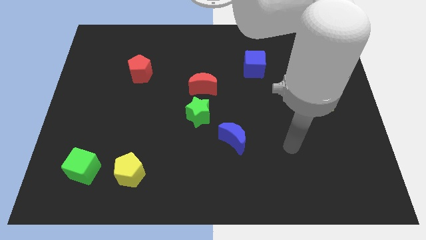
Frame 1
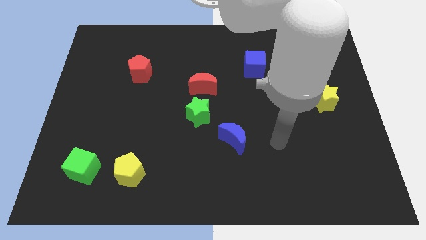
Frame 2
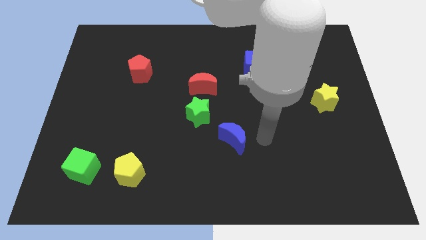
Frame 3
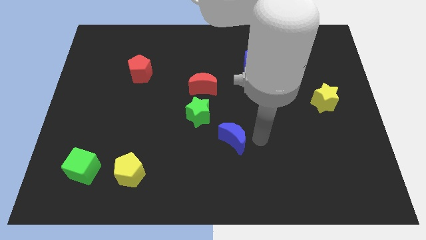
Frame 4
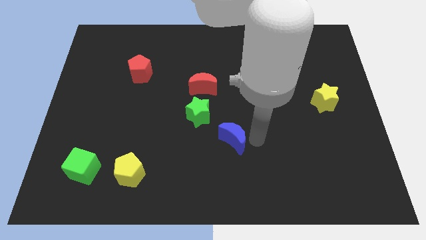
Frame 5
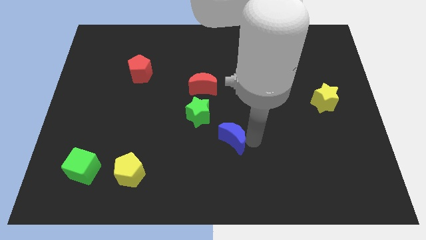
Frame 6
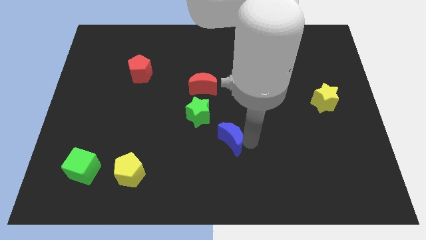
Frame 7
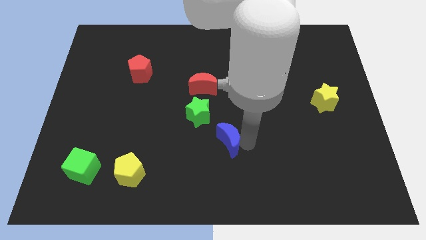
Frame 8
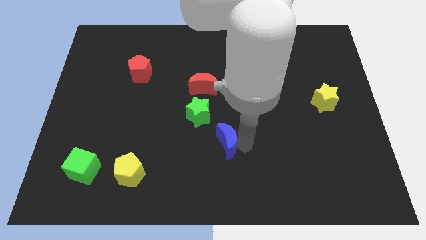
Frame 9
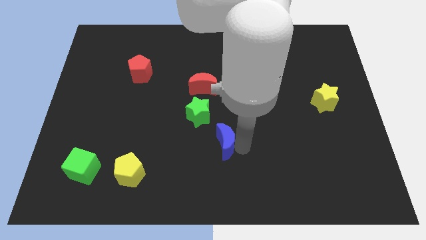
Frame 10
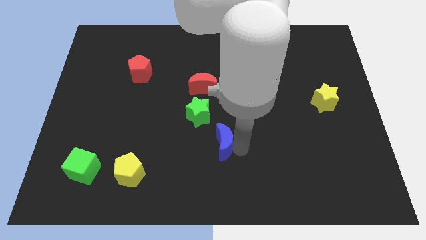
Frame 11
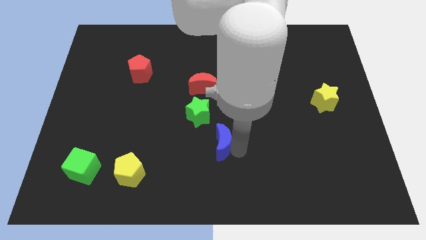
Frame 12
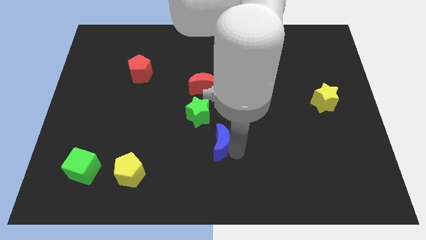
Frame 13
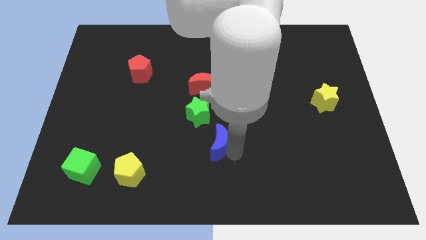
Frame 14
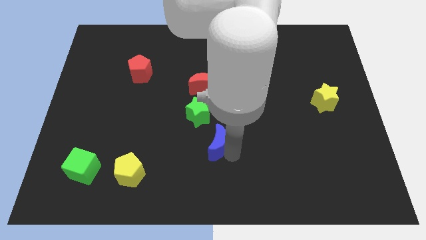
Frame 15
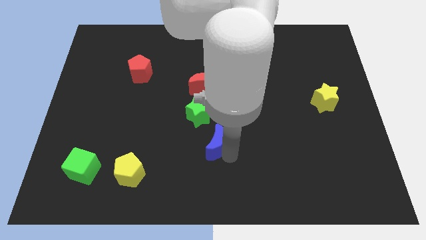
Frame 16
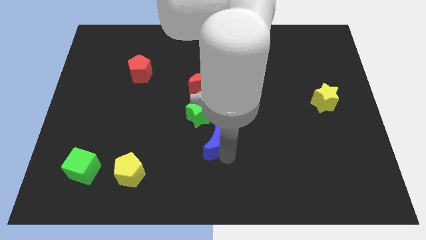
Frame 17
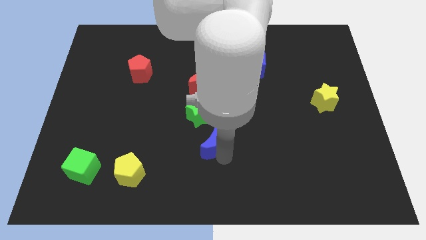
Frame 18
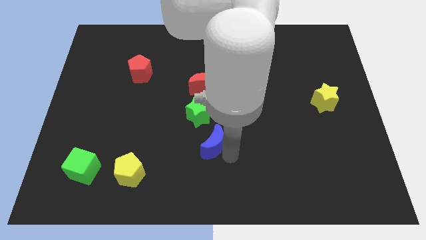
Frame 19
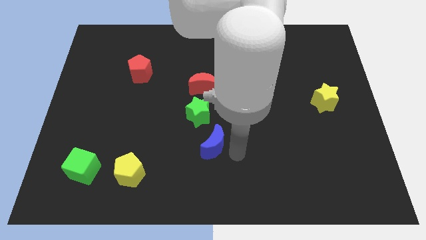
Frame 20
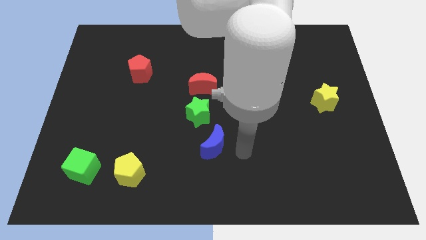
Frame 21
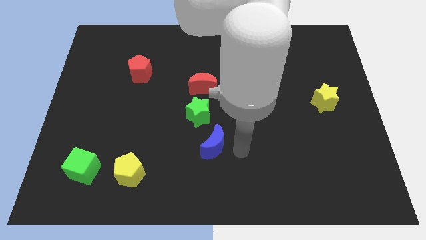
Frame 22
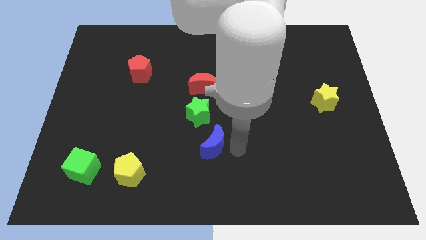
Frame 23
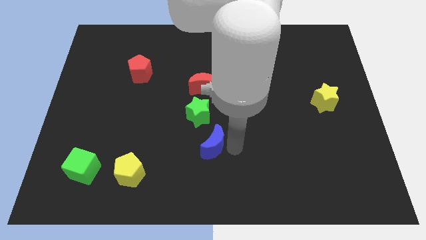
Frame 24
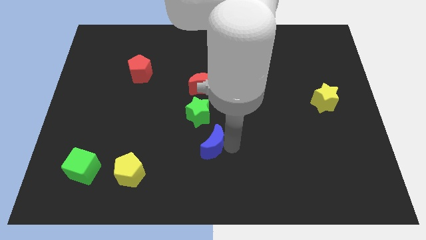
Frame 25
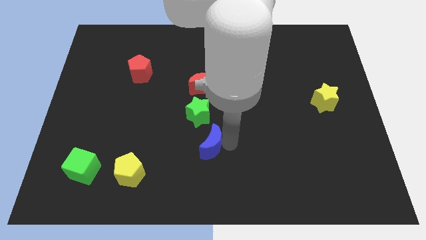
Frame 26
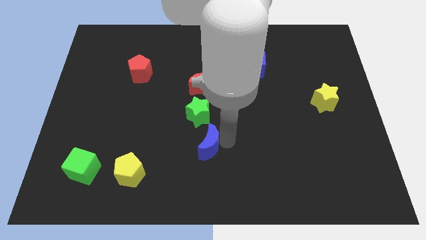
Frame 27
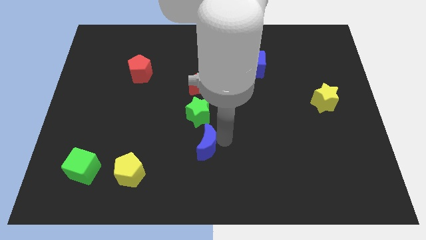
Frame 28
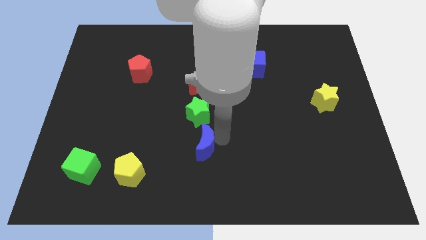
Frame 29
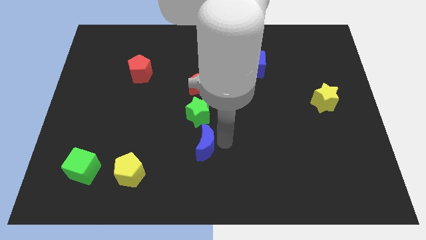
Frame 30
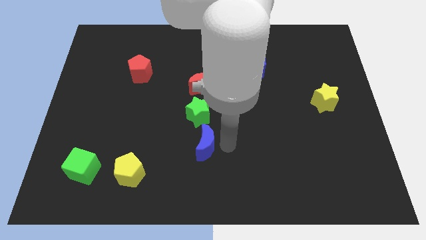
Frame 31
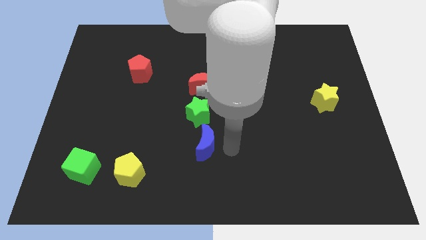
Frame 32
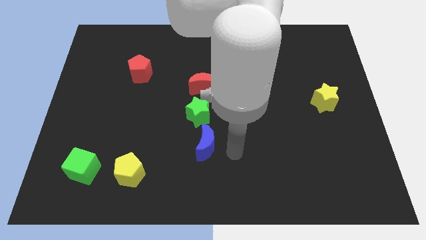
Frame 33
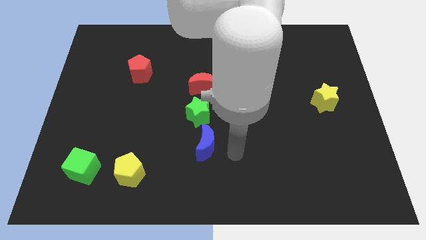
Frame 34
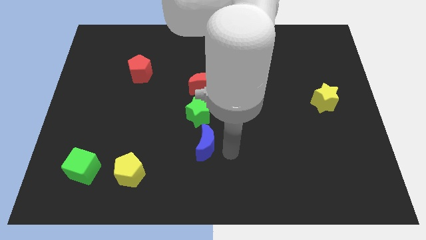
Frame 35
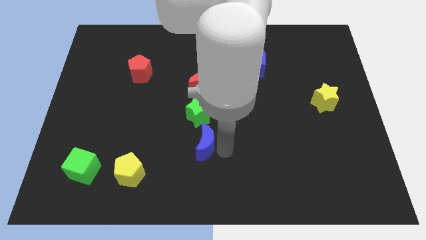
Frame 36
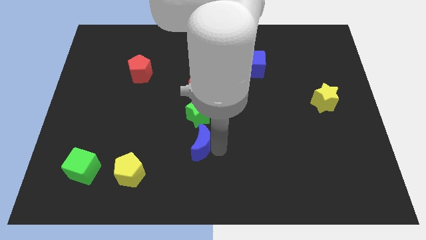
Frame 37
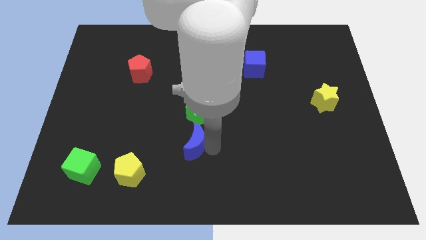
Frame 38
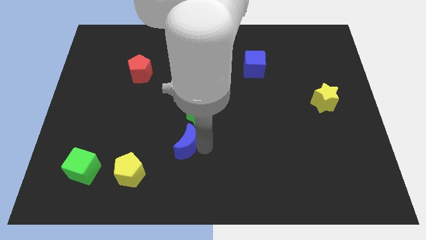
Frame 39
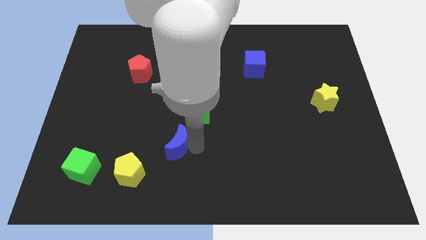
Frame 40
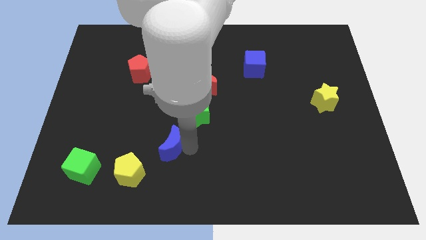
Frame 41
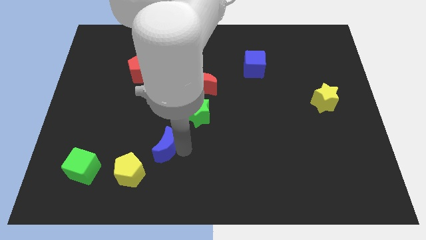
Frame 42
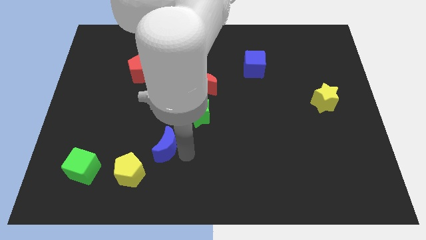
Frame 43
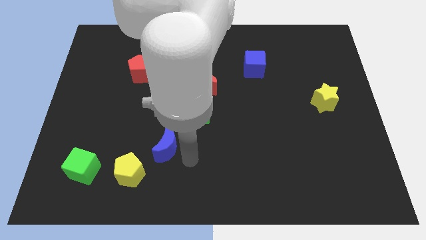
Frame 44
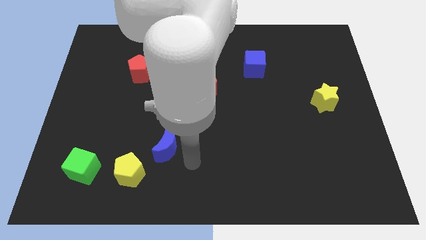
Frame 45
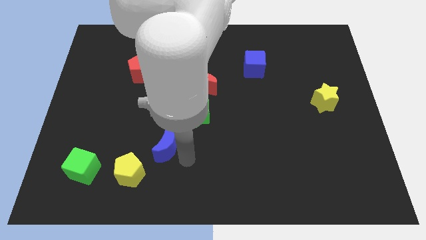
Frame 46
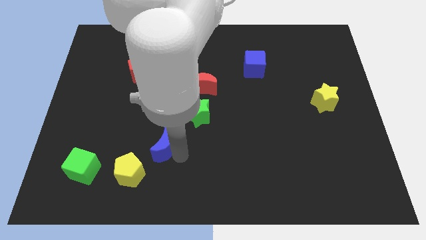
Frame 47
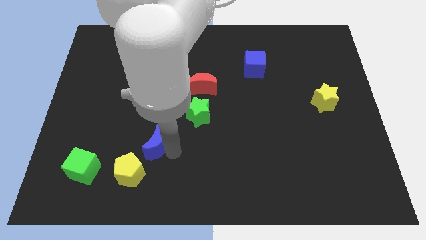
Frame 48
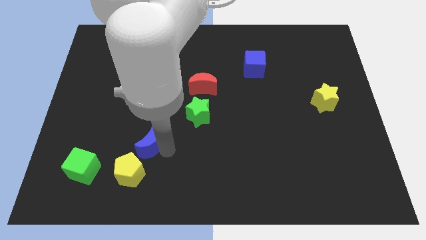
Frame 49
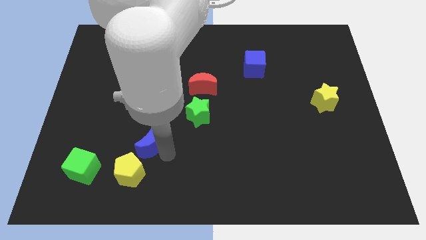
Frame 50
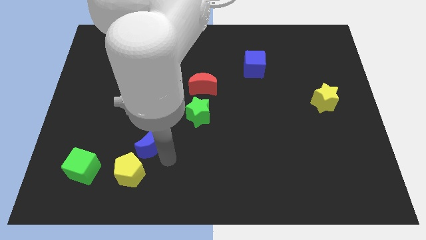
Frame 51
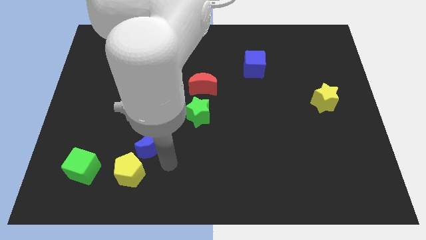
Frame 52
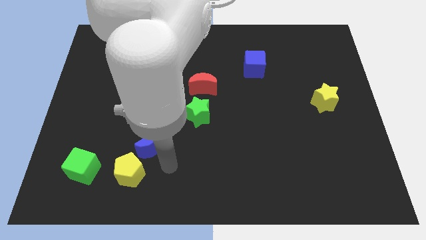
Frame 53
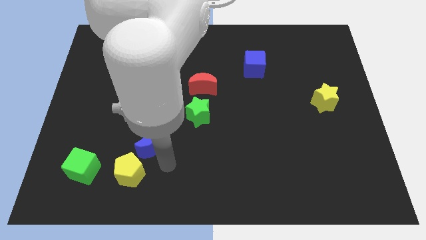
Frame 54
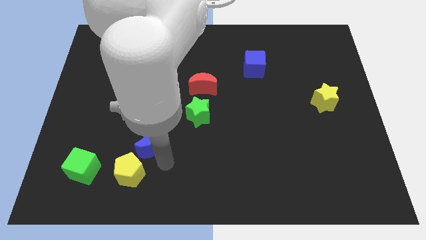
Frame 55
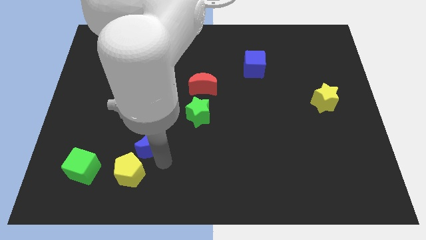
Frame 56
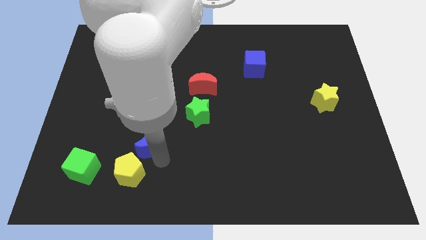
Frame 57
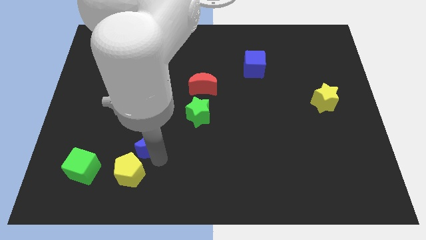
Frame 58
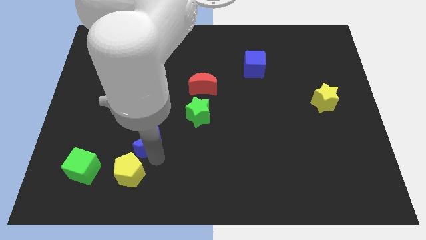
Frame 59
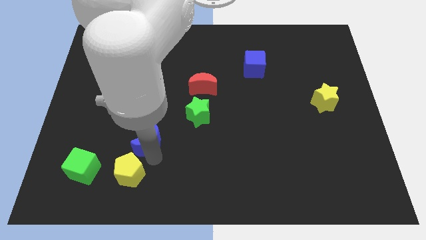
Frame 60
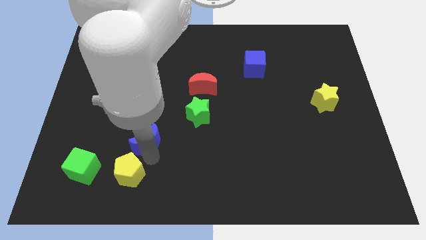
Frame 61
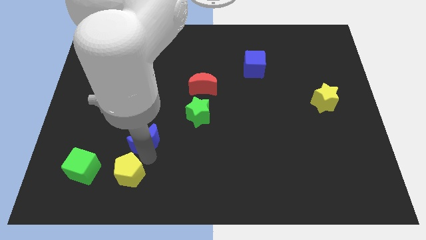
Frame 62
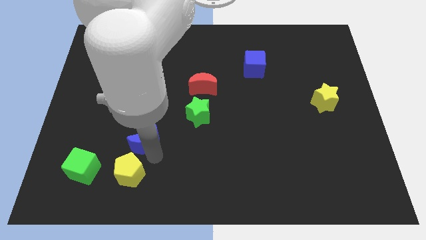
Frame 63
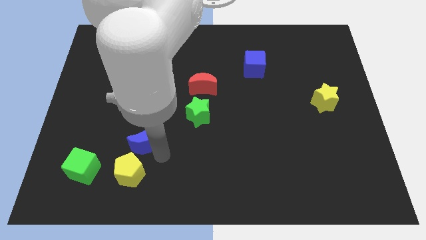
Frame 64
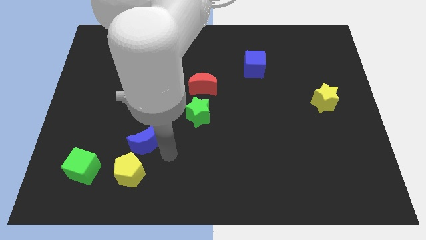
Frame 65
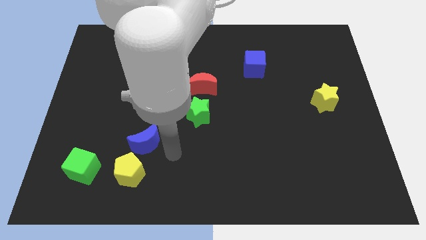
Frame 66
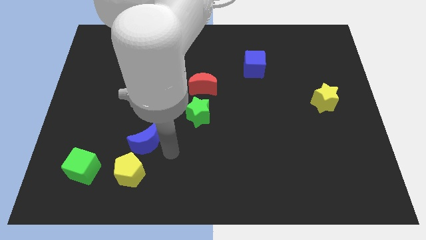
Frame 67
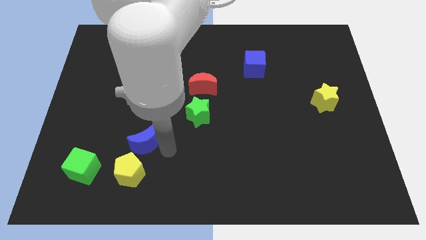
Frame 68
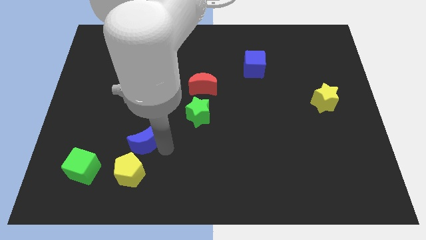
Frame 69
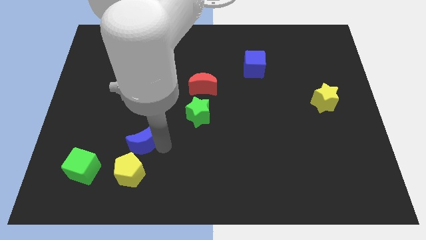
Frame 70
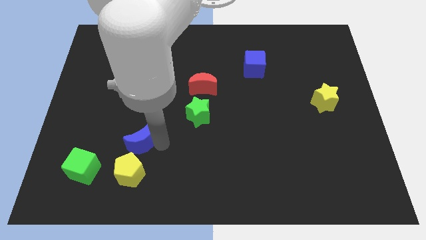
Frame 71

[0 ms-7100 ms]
slide the blue moon left

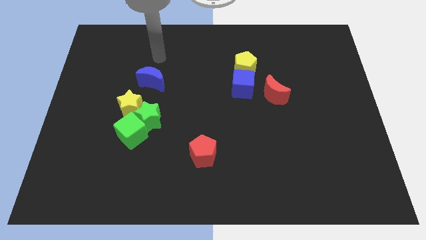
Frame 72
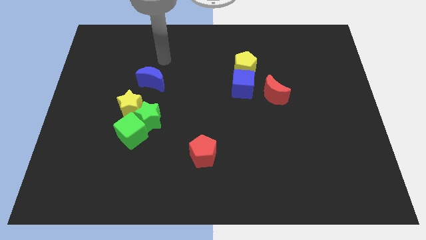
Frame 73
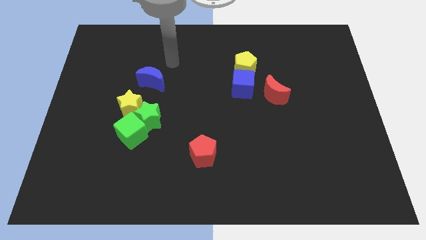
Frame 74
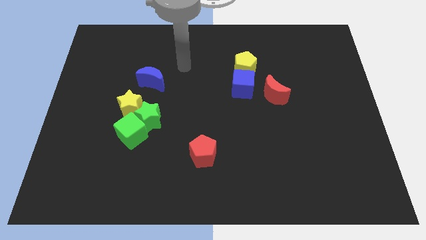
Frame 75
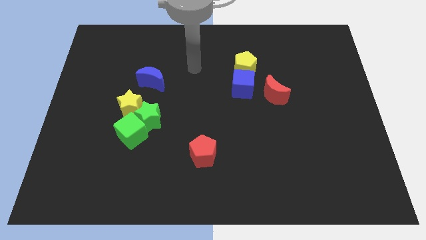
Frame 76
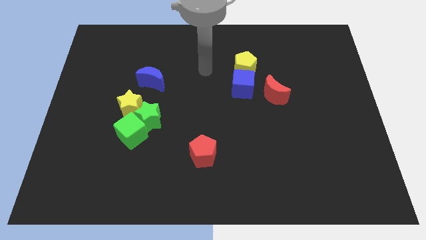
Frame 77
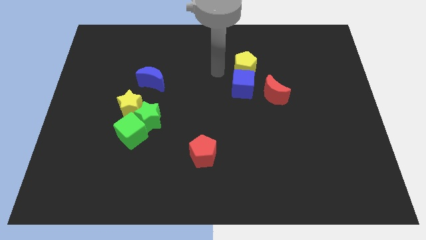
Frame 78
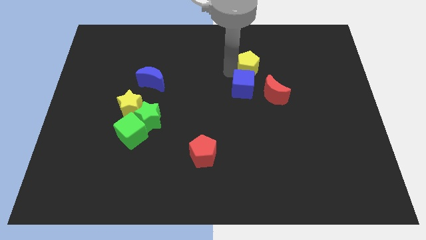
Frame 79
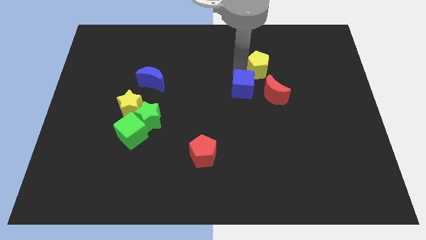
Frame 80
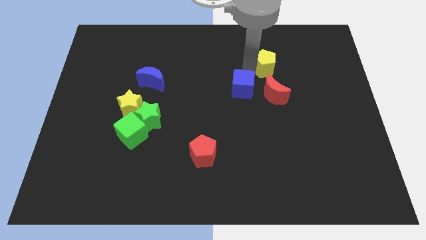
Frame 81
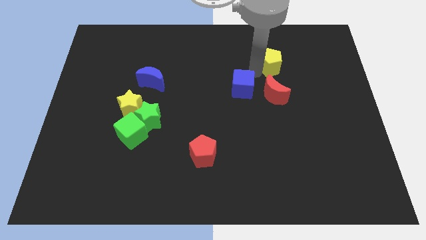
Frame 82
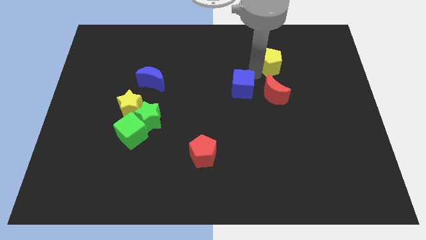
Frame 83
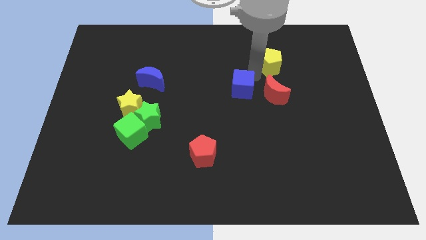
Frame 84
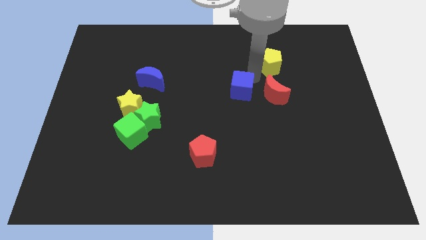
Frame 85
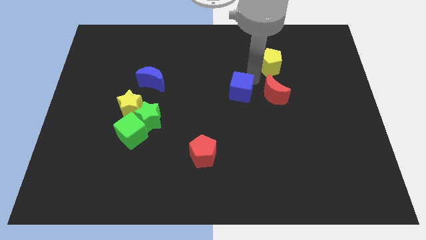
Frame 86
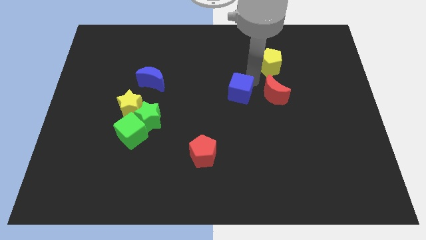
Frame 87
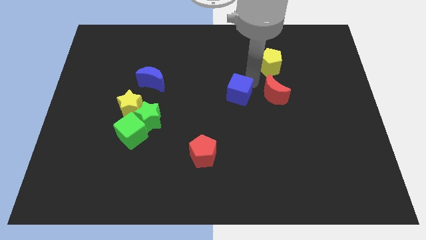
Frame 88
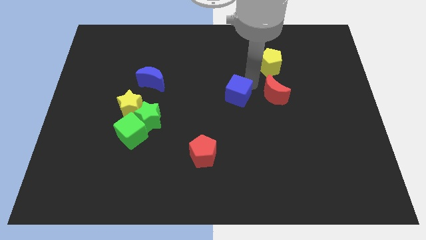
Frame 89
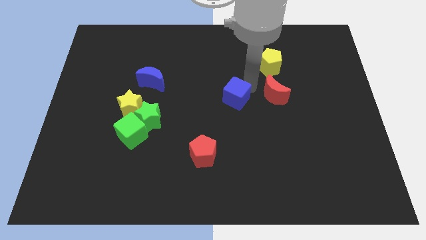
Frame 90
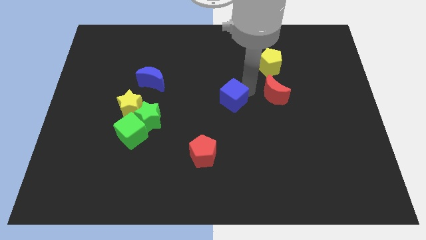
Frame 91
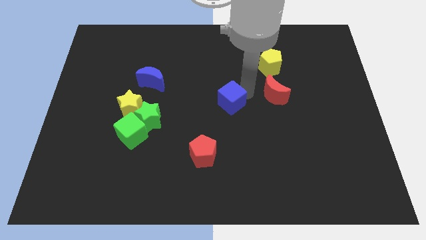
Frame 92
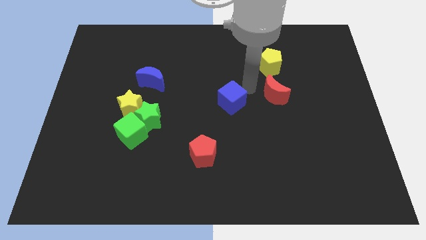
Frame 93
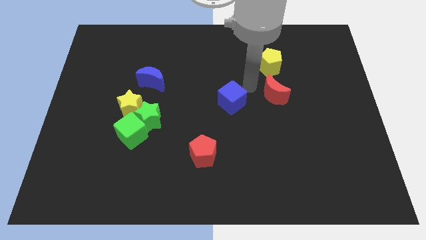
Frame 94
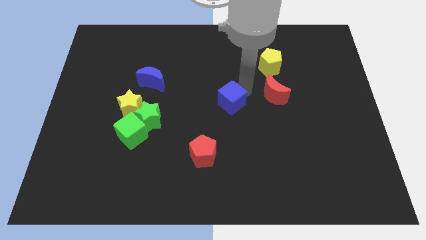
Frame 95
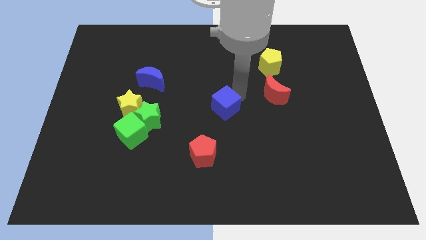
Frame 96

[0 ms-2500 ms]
push the blue cube somewhat down and left
